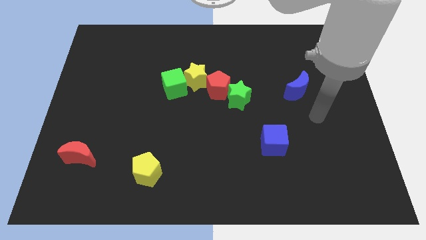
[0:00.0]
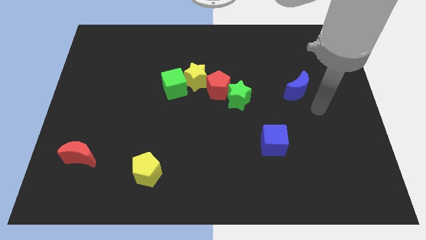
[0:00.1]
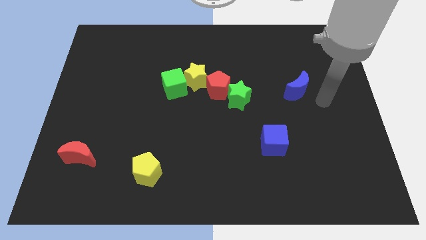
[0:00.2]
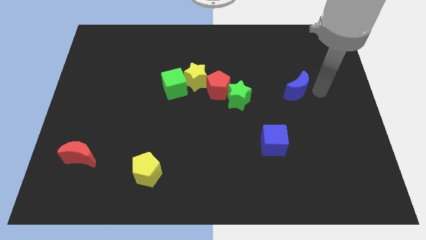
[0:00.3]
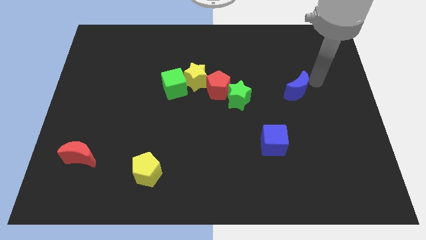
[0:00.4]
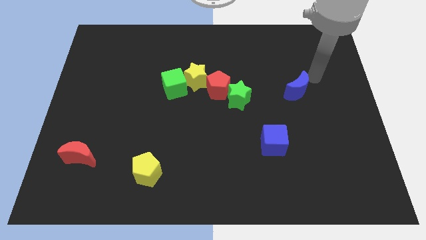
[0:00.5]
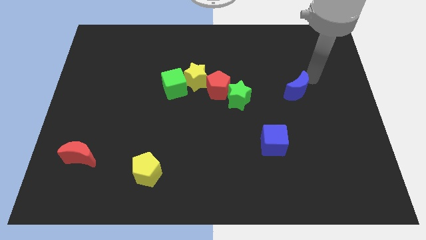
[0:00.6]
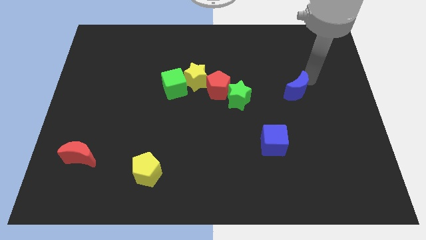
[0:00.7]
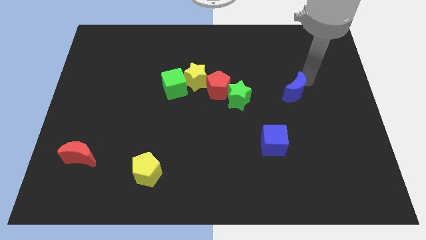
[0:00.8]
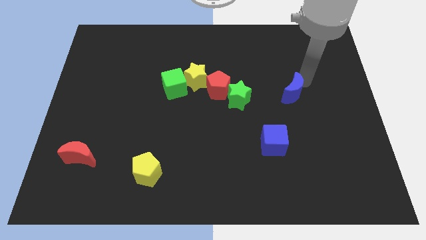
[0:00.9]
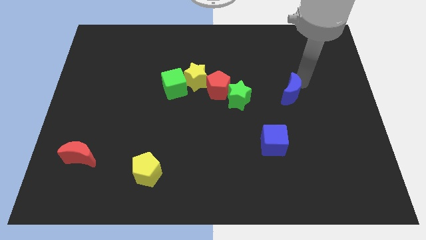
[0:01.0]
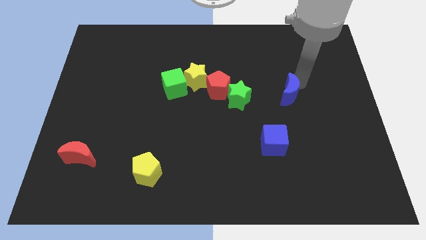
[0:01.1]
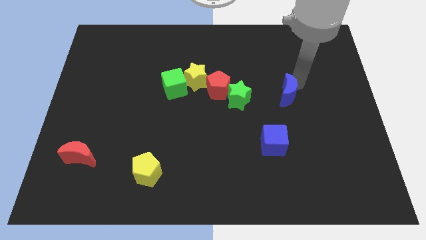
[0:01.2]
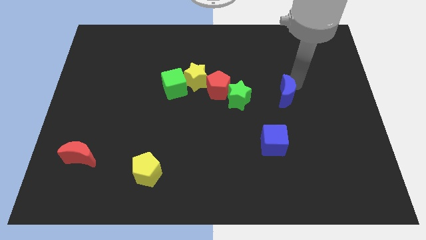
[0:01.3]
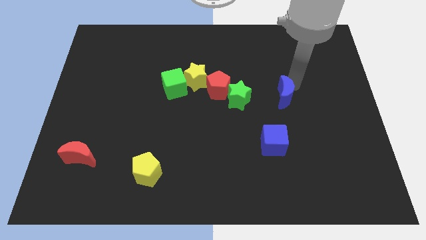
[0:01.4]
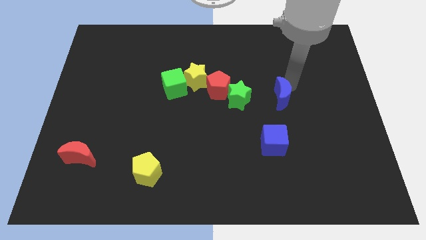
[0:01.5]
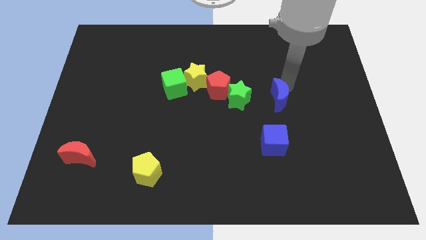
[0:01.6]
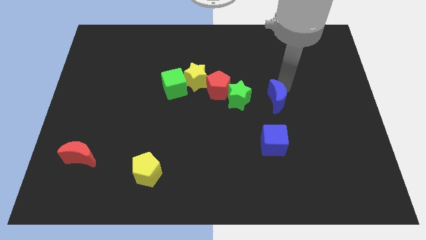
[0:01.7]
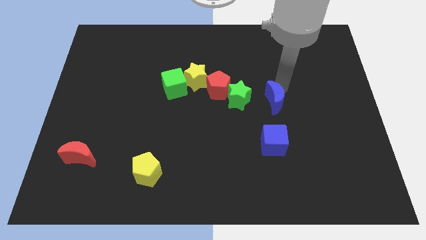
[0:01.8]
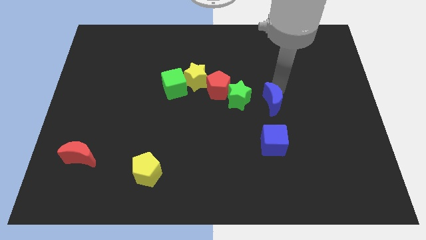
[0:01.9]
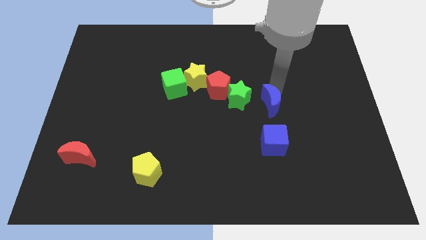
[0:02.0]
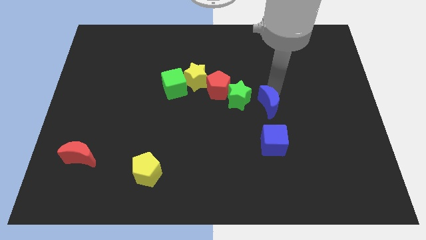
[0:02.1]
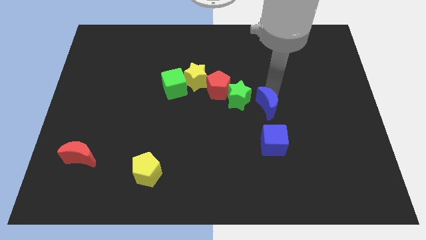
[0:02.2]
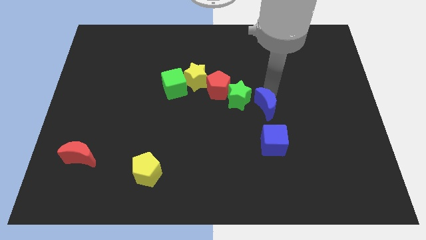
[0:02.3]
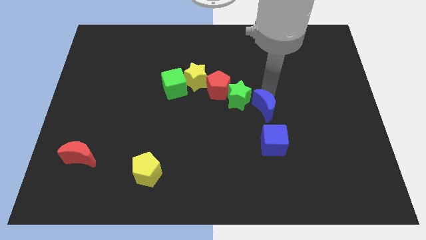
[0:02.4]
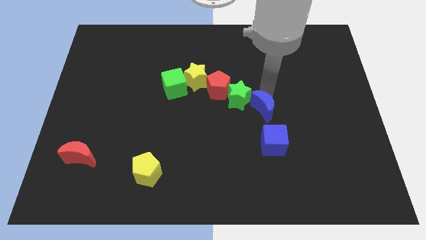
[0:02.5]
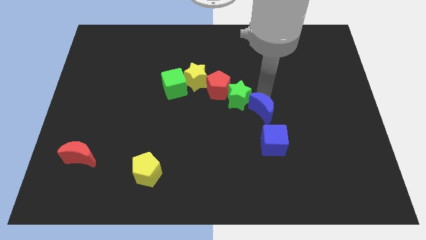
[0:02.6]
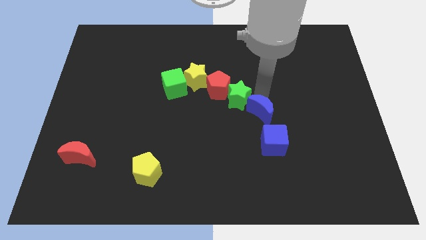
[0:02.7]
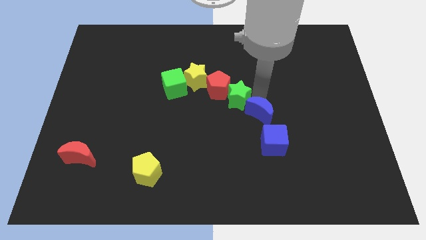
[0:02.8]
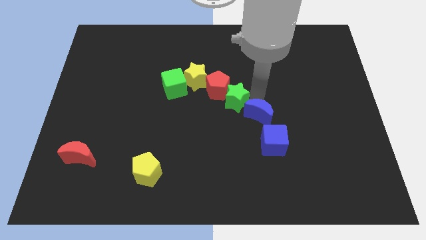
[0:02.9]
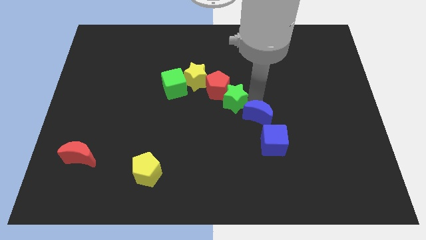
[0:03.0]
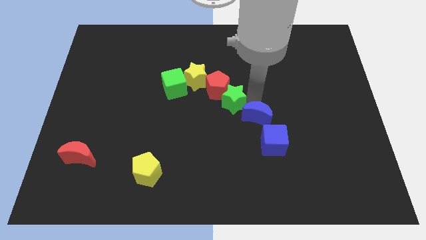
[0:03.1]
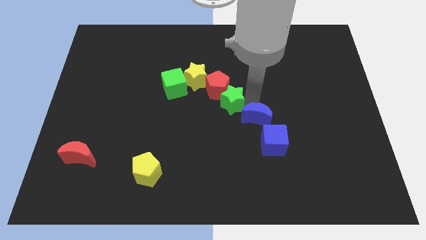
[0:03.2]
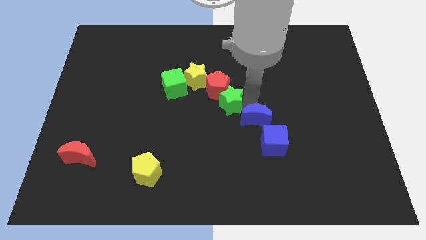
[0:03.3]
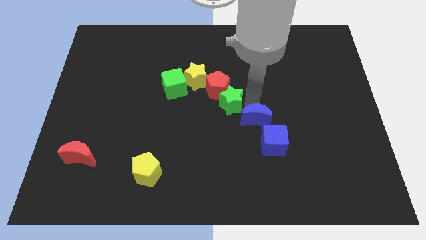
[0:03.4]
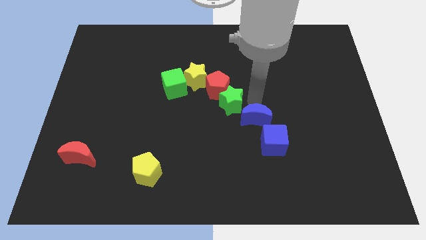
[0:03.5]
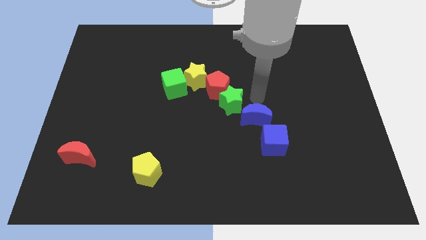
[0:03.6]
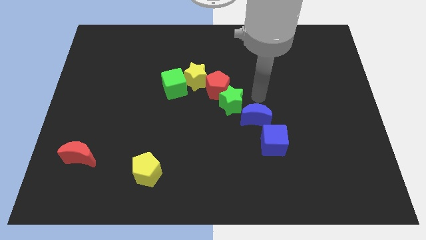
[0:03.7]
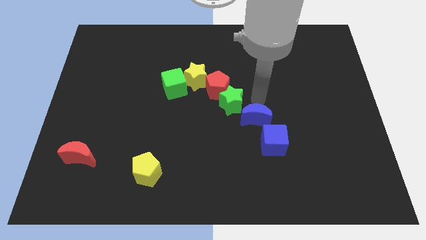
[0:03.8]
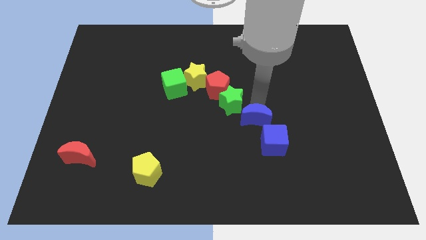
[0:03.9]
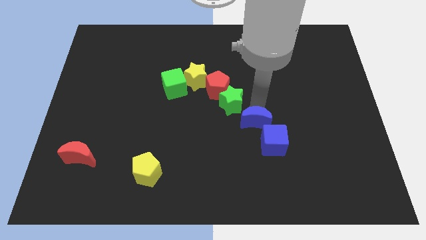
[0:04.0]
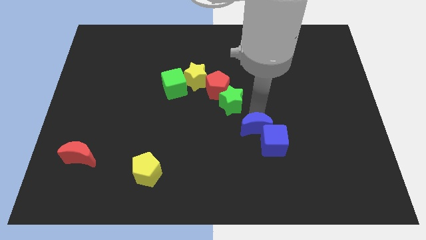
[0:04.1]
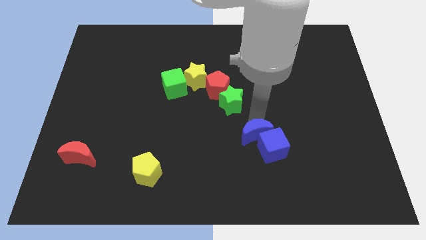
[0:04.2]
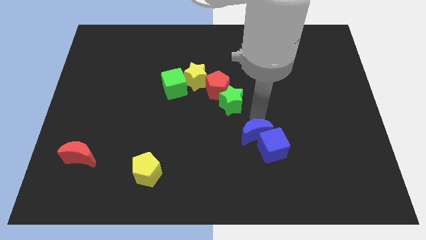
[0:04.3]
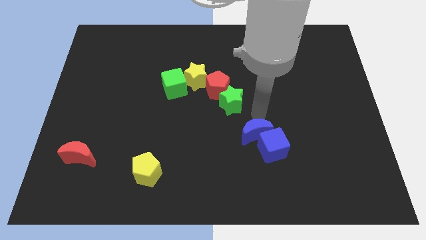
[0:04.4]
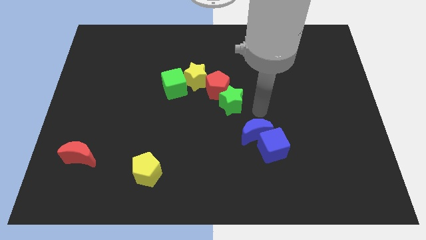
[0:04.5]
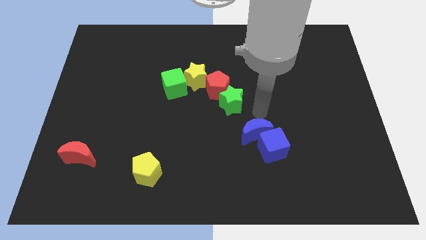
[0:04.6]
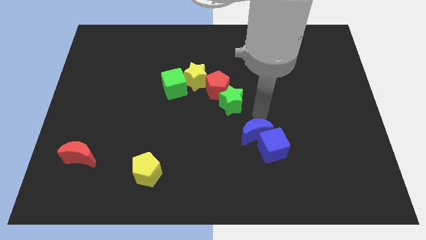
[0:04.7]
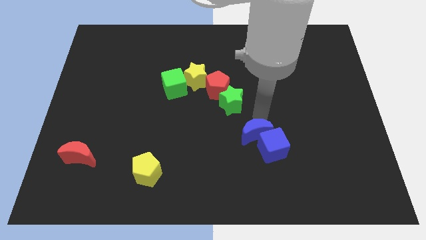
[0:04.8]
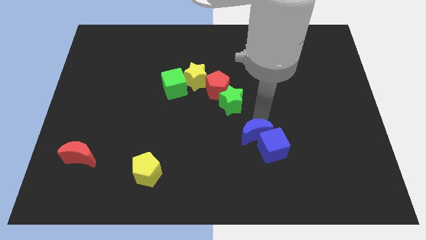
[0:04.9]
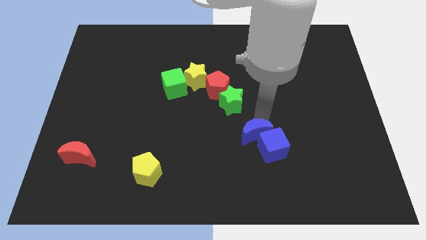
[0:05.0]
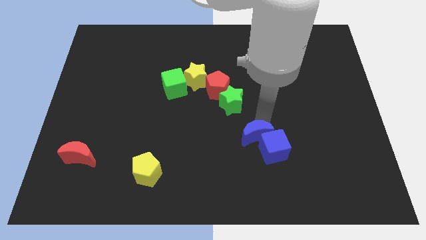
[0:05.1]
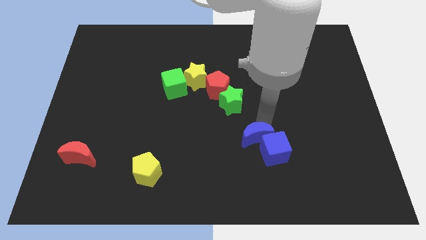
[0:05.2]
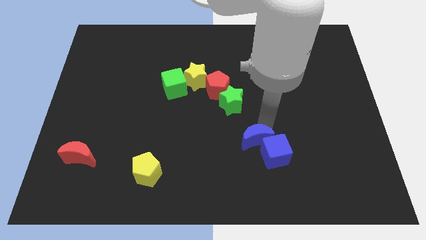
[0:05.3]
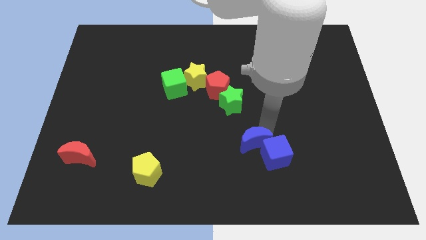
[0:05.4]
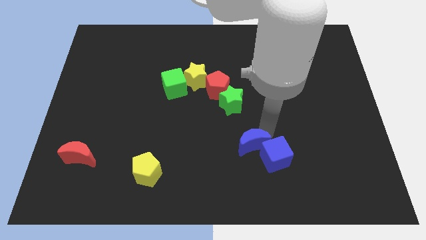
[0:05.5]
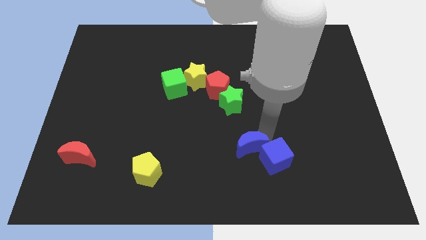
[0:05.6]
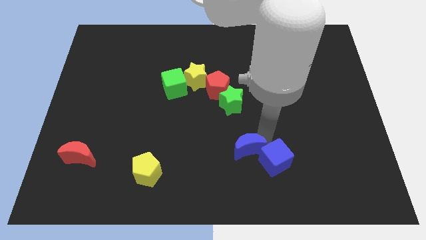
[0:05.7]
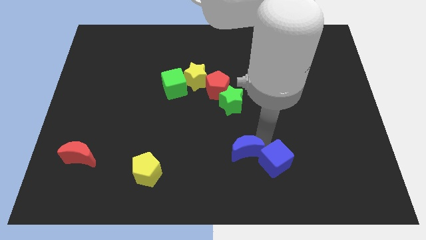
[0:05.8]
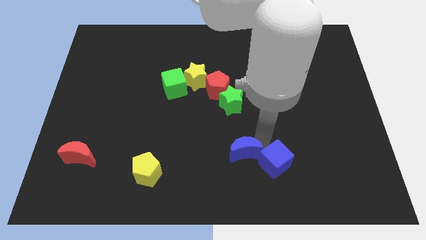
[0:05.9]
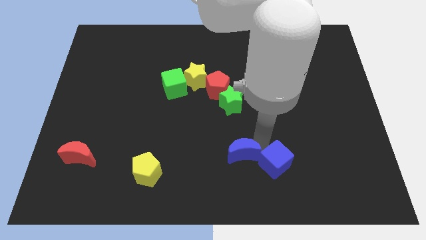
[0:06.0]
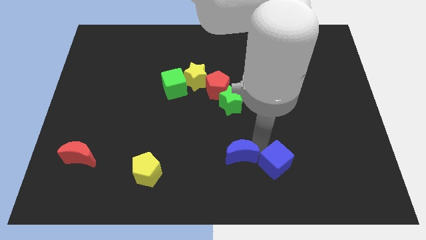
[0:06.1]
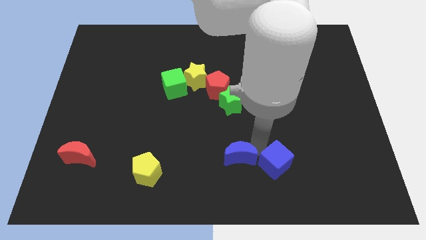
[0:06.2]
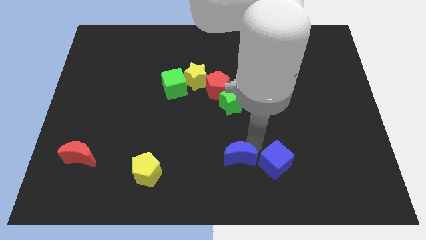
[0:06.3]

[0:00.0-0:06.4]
slide the blue moon to the bottom

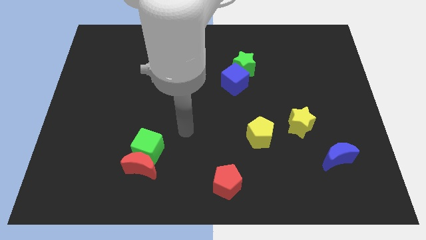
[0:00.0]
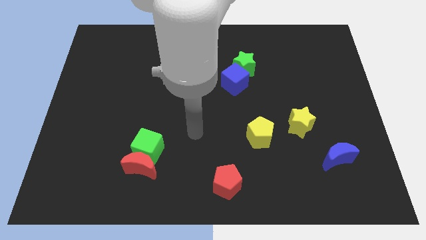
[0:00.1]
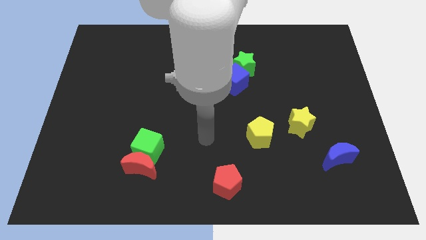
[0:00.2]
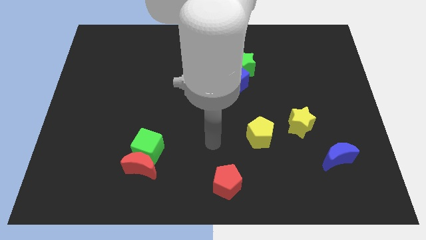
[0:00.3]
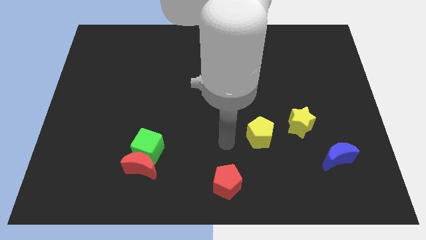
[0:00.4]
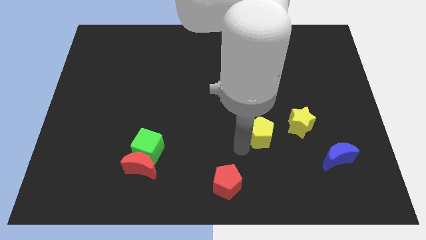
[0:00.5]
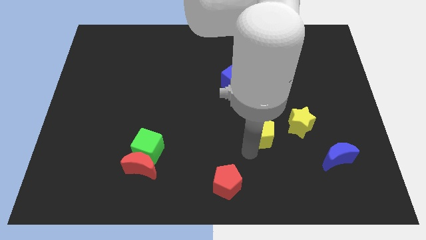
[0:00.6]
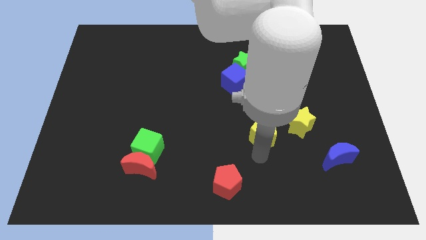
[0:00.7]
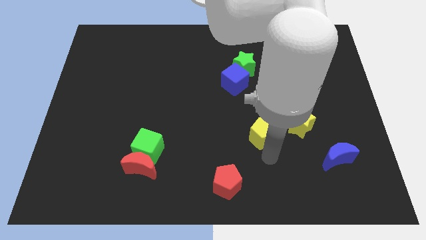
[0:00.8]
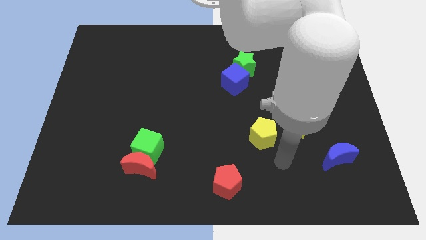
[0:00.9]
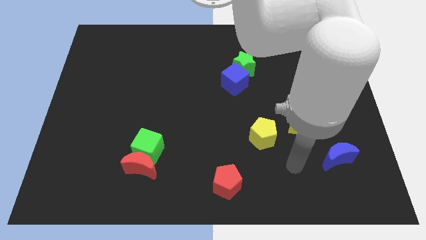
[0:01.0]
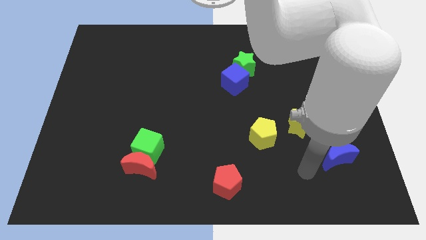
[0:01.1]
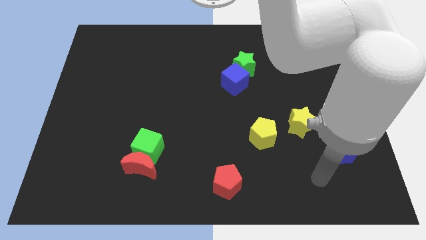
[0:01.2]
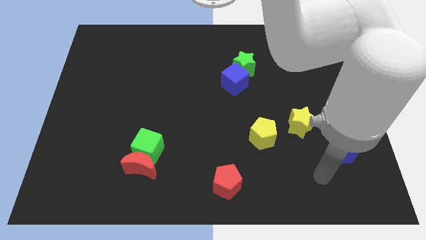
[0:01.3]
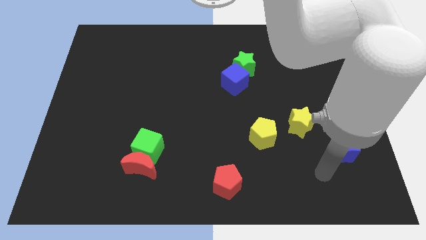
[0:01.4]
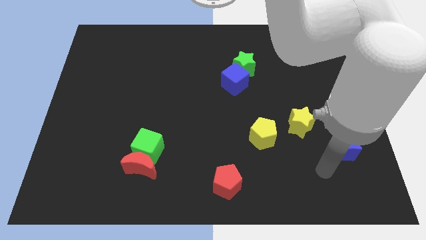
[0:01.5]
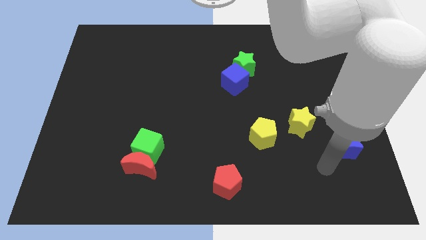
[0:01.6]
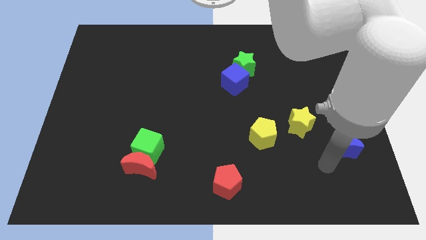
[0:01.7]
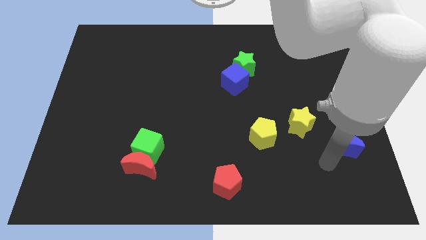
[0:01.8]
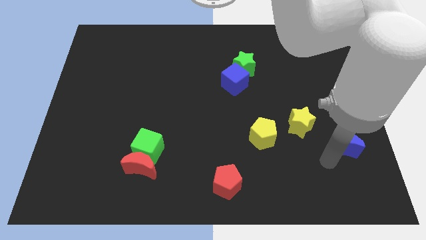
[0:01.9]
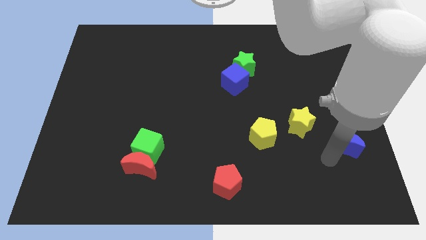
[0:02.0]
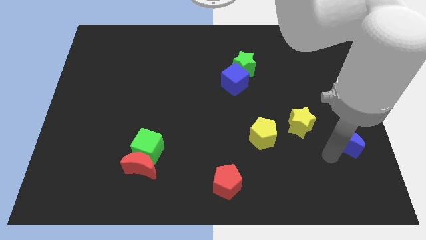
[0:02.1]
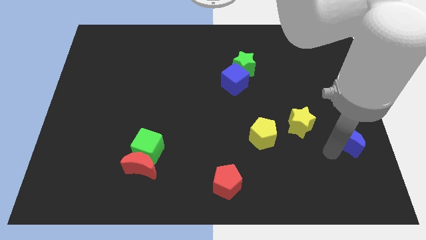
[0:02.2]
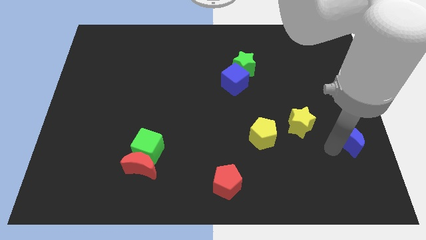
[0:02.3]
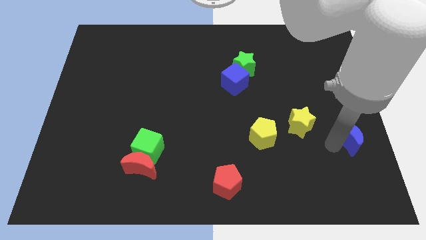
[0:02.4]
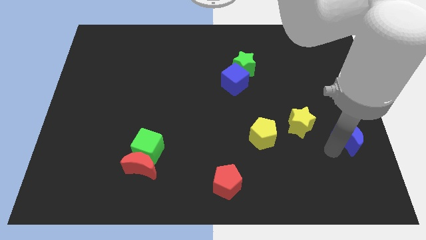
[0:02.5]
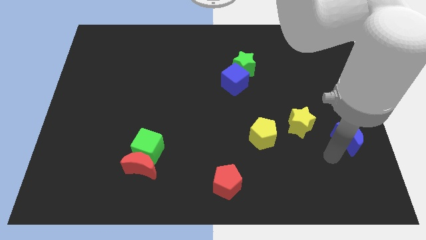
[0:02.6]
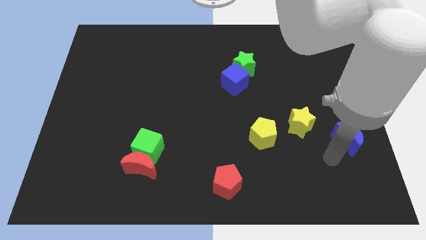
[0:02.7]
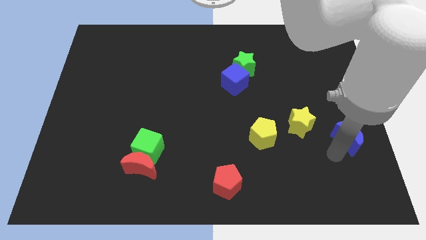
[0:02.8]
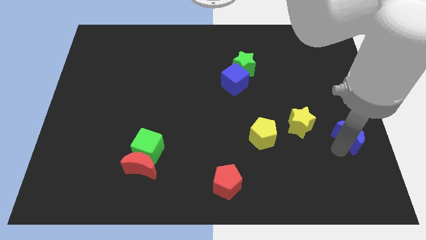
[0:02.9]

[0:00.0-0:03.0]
put the blue moon to the right side of the board
